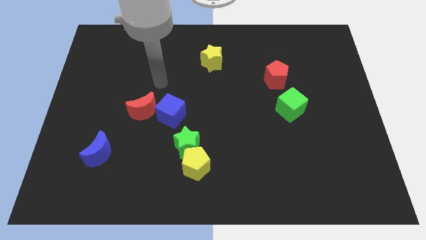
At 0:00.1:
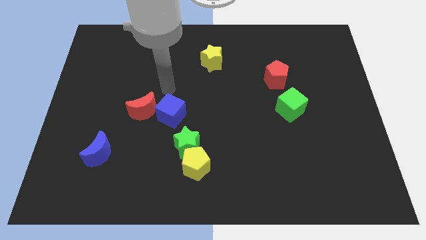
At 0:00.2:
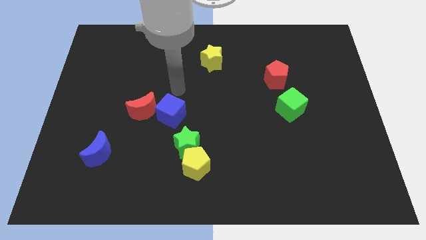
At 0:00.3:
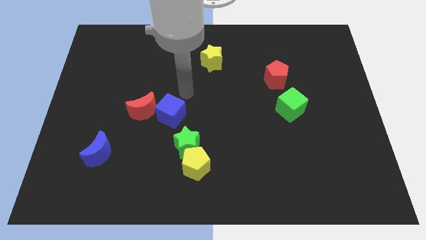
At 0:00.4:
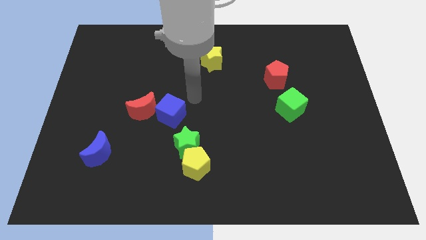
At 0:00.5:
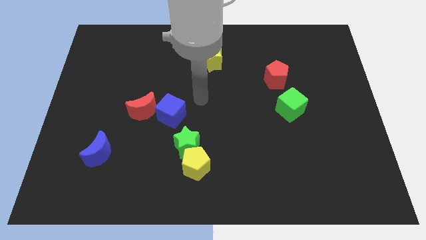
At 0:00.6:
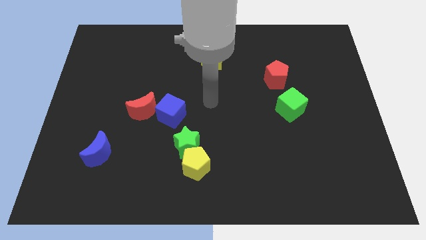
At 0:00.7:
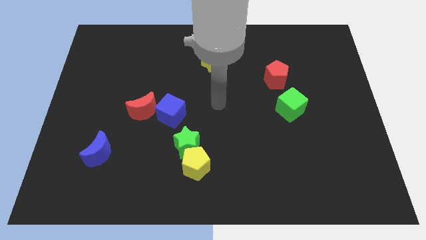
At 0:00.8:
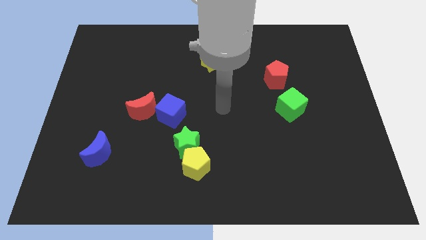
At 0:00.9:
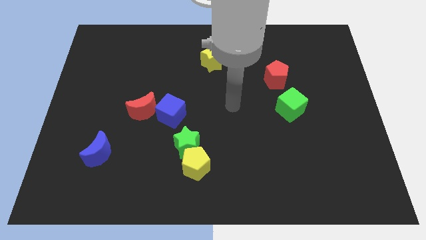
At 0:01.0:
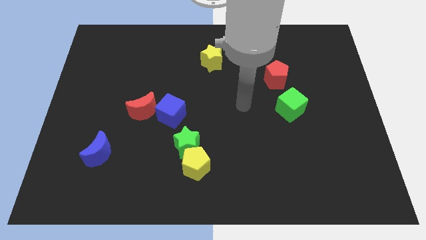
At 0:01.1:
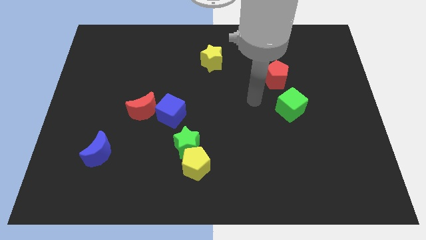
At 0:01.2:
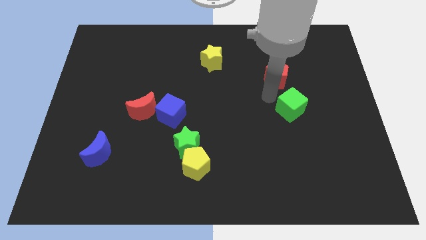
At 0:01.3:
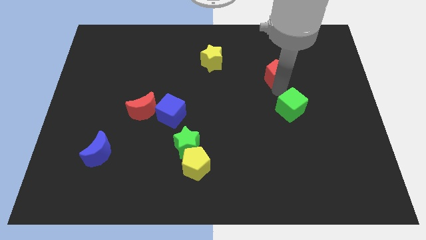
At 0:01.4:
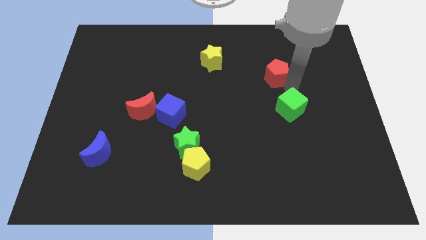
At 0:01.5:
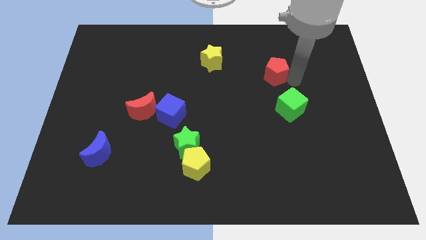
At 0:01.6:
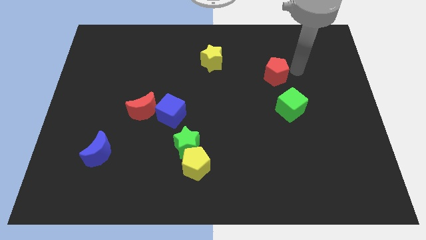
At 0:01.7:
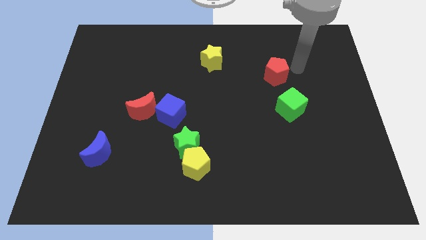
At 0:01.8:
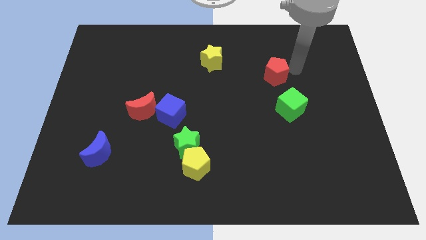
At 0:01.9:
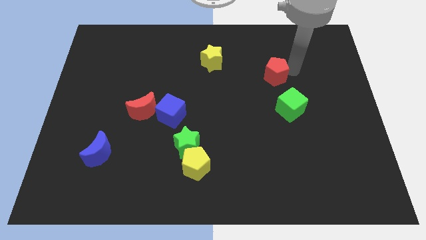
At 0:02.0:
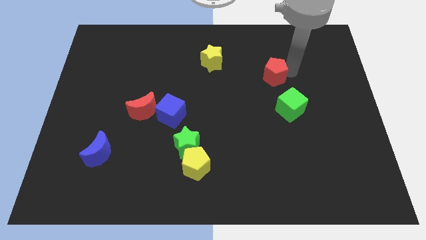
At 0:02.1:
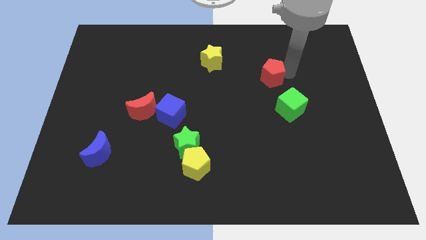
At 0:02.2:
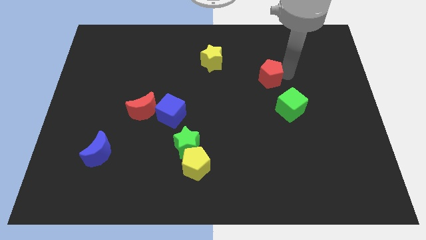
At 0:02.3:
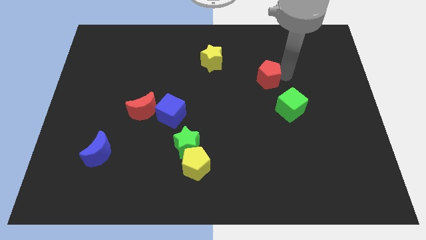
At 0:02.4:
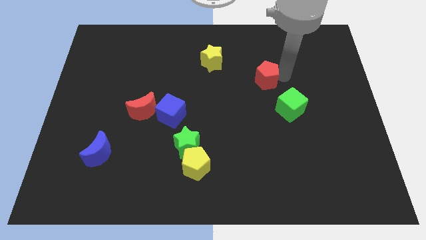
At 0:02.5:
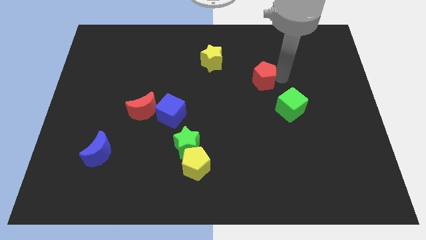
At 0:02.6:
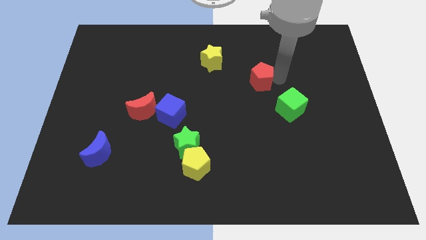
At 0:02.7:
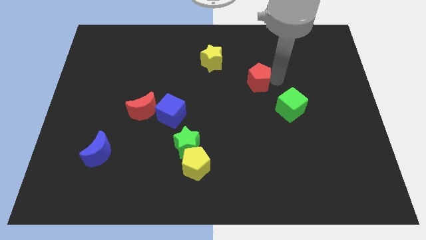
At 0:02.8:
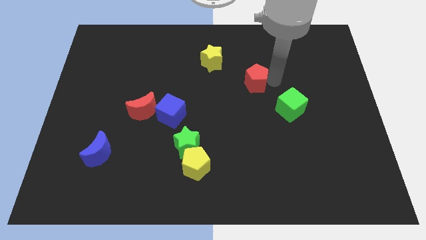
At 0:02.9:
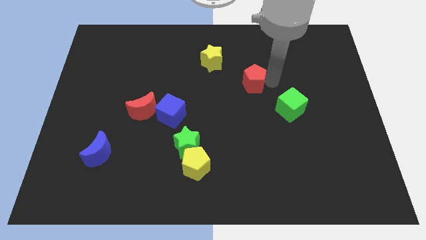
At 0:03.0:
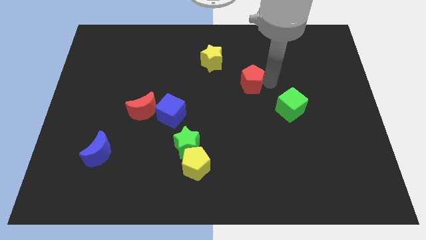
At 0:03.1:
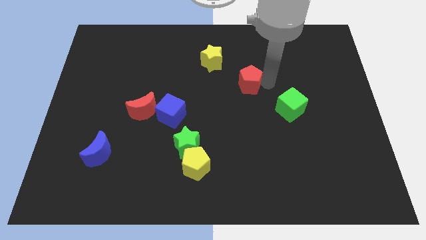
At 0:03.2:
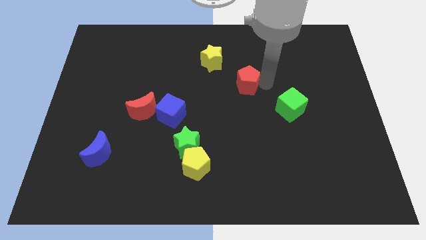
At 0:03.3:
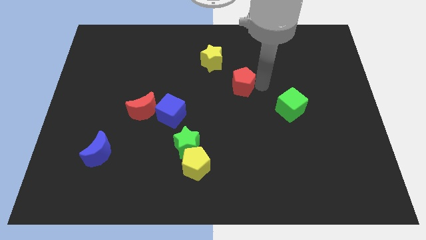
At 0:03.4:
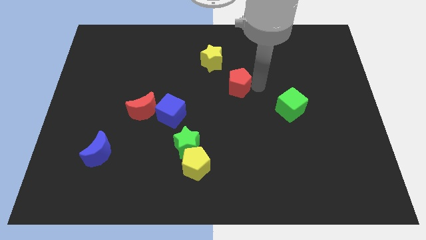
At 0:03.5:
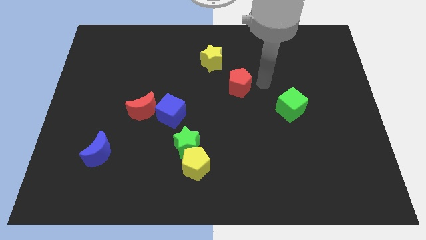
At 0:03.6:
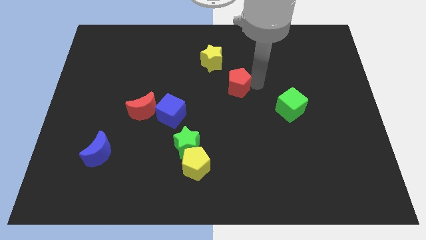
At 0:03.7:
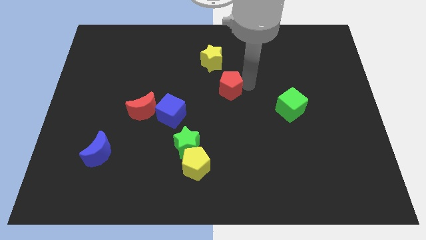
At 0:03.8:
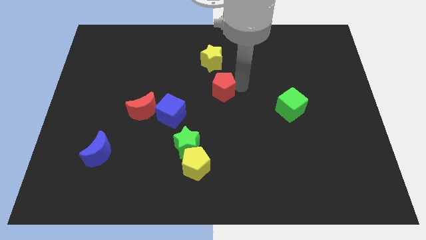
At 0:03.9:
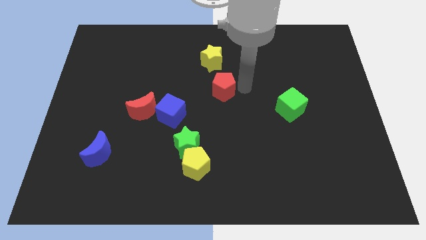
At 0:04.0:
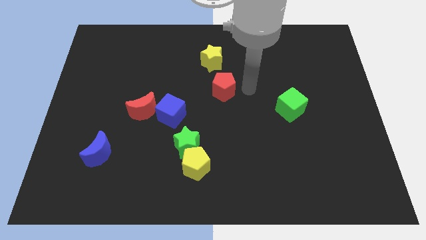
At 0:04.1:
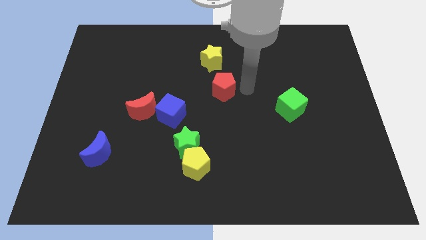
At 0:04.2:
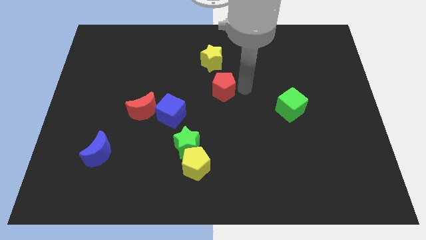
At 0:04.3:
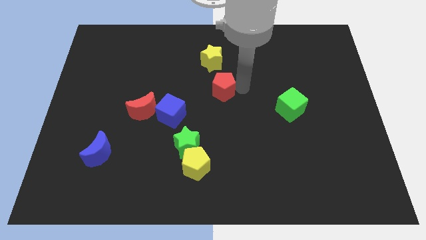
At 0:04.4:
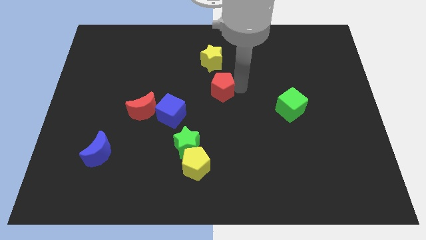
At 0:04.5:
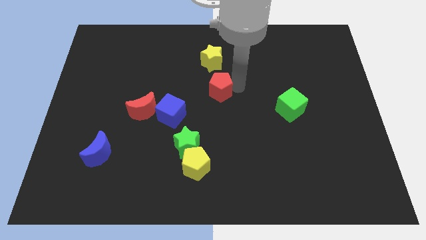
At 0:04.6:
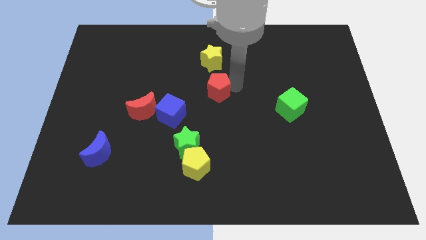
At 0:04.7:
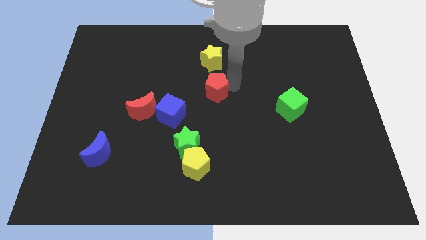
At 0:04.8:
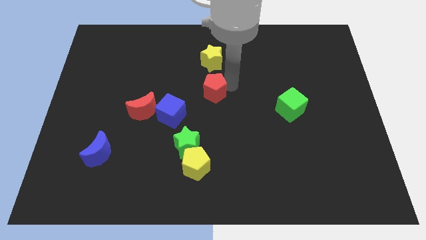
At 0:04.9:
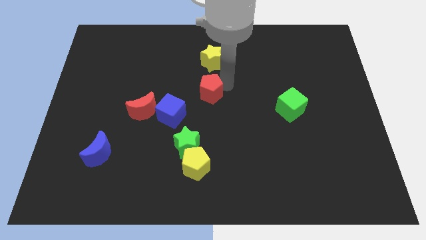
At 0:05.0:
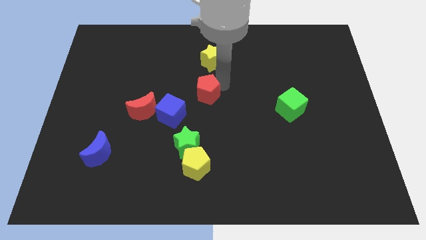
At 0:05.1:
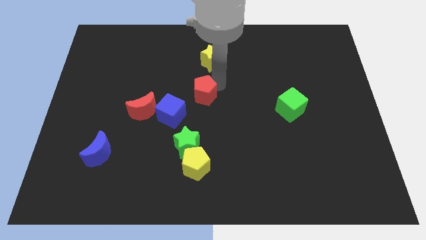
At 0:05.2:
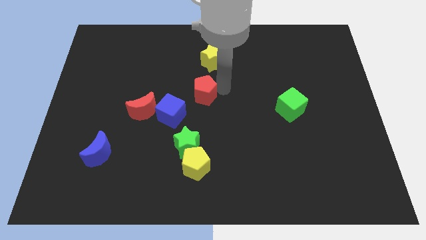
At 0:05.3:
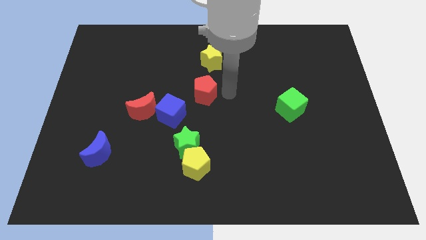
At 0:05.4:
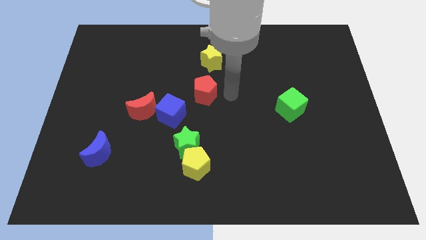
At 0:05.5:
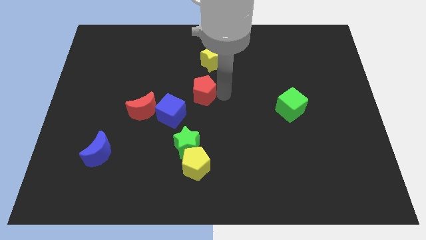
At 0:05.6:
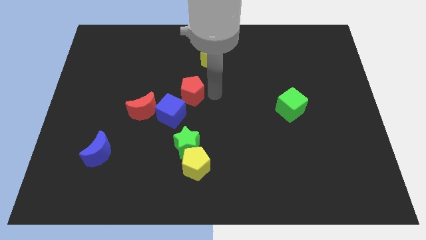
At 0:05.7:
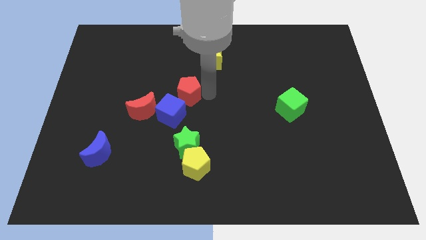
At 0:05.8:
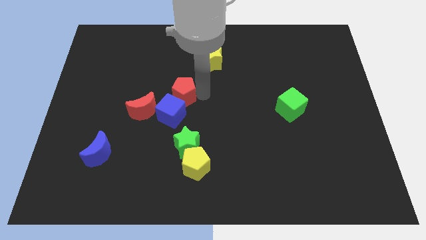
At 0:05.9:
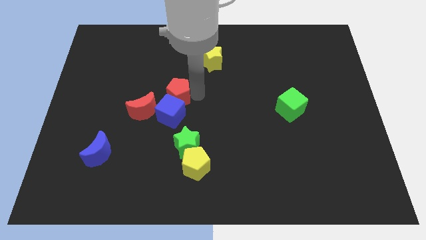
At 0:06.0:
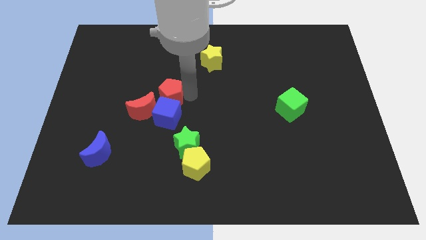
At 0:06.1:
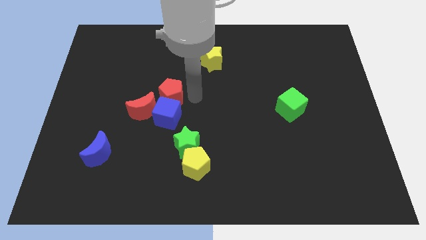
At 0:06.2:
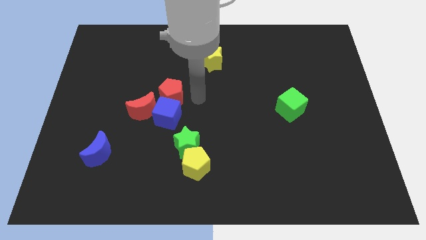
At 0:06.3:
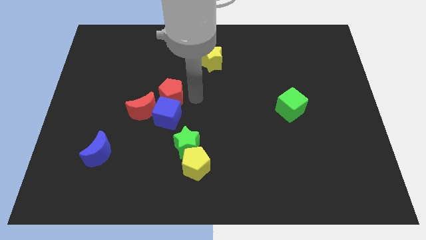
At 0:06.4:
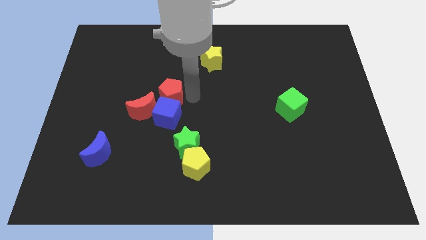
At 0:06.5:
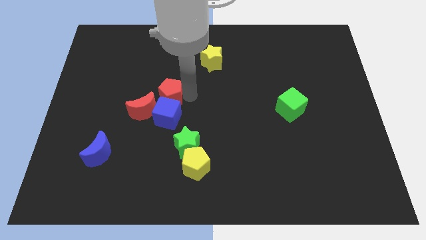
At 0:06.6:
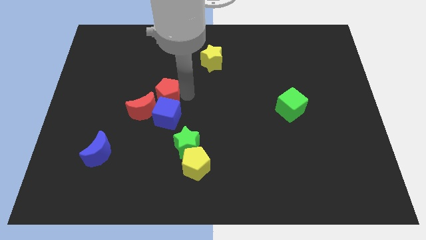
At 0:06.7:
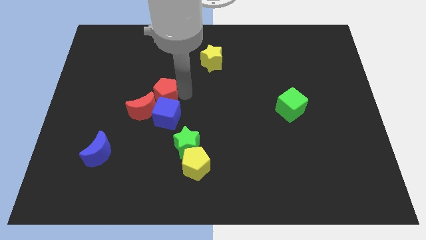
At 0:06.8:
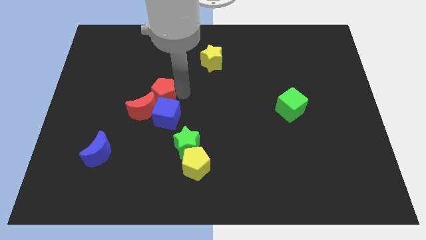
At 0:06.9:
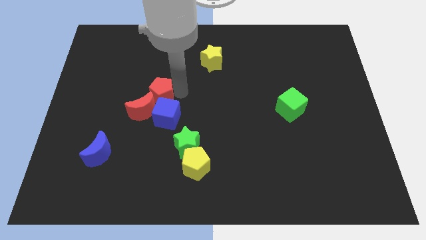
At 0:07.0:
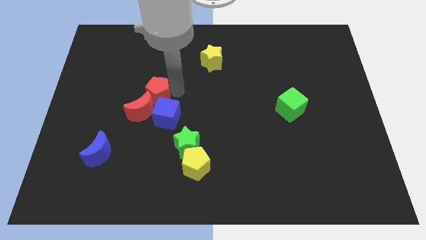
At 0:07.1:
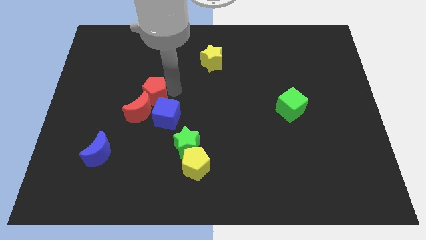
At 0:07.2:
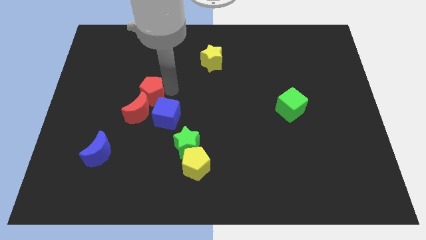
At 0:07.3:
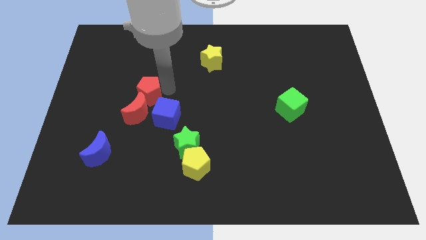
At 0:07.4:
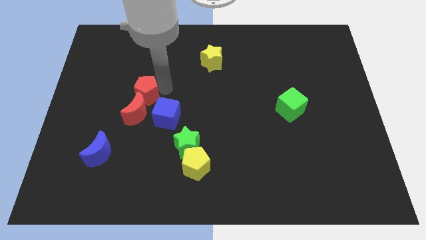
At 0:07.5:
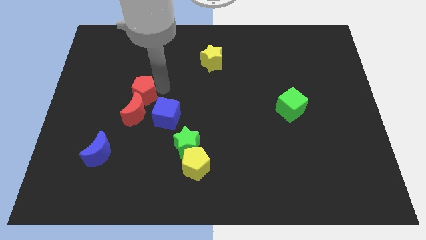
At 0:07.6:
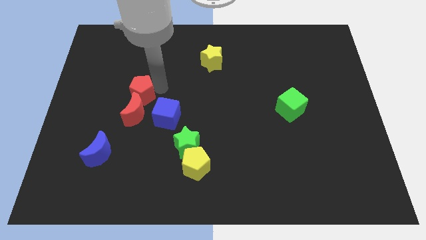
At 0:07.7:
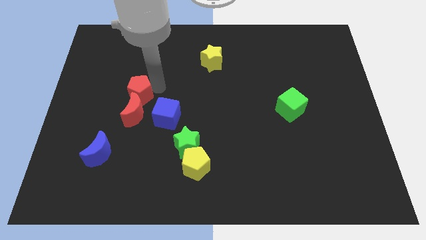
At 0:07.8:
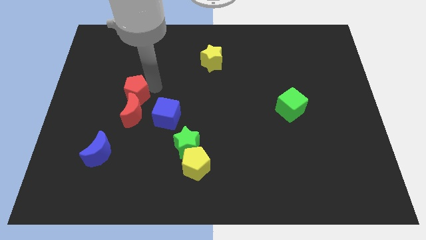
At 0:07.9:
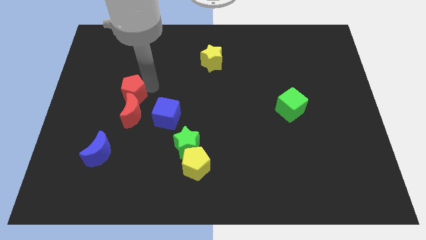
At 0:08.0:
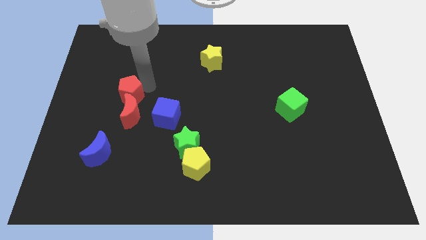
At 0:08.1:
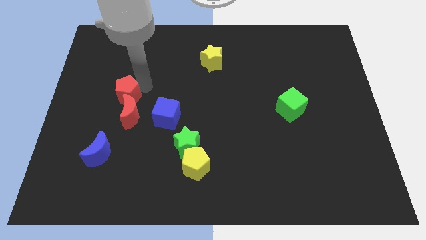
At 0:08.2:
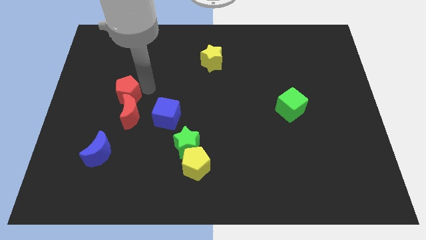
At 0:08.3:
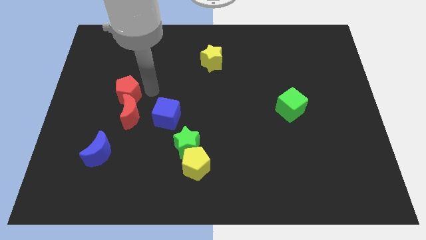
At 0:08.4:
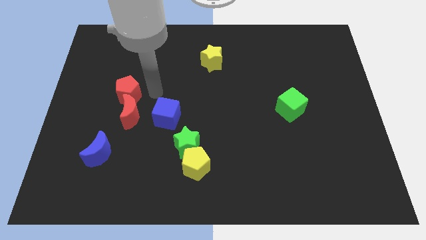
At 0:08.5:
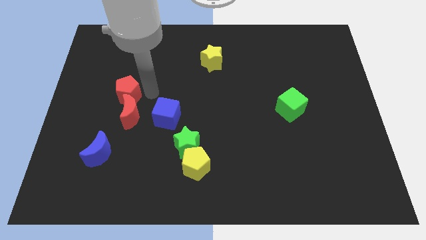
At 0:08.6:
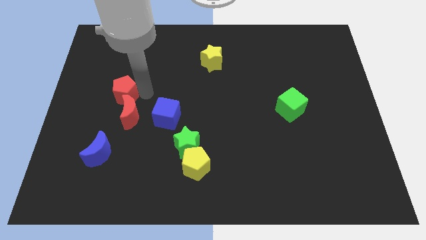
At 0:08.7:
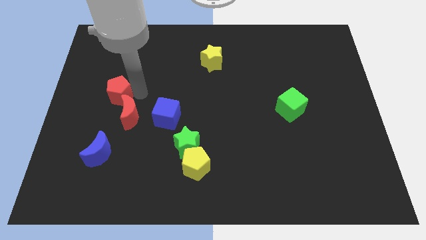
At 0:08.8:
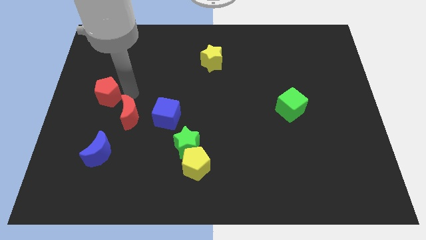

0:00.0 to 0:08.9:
move the red pentagon to the left side
